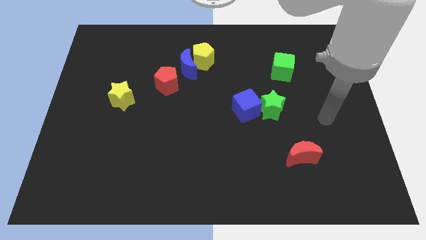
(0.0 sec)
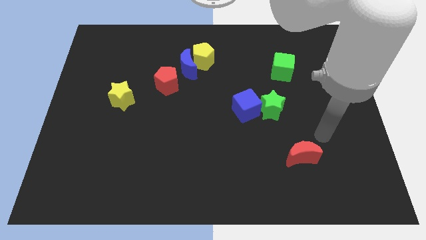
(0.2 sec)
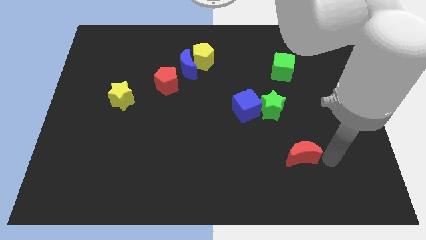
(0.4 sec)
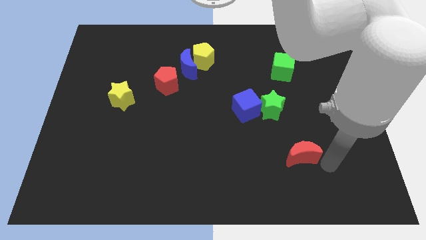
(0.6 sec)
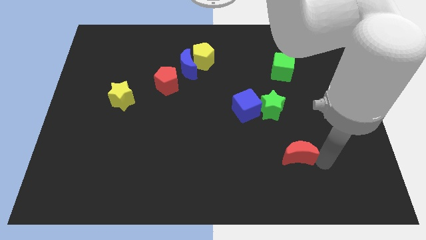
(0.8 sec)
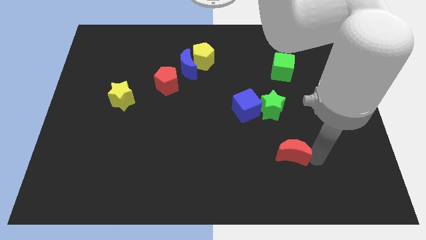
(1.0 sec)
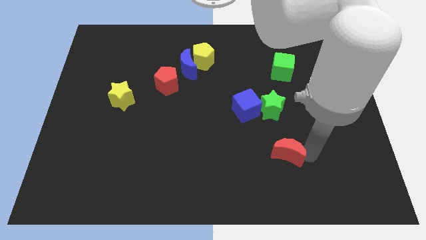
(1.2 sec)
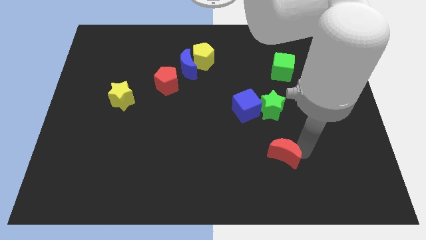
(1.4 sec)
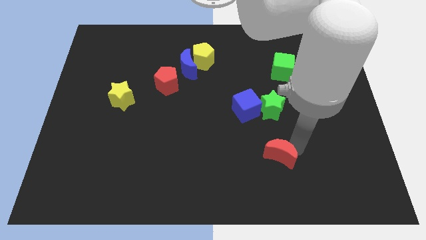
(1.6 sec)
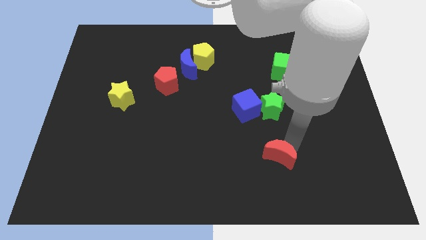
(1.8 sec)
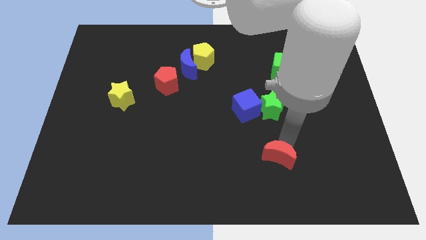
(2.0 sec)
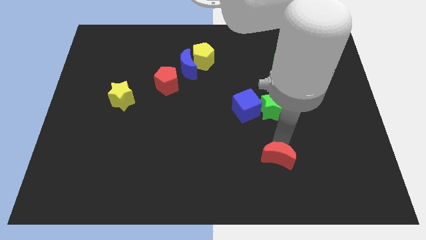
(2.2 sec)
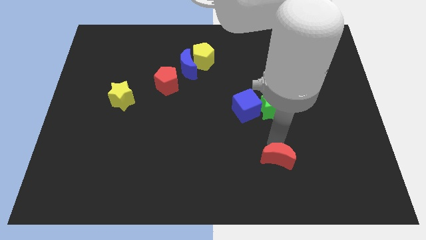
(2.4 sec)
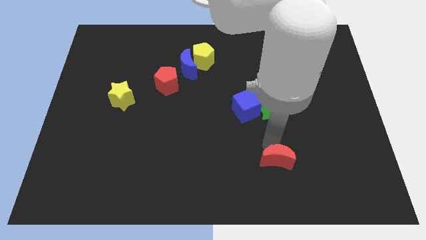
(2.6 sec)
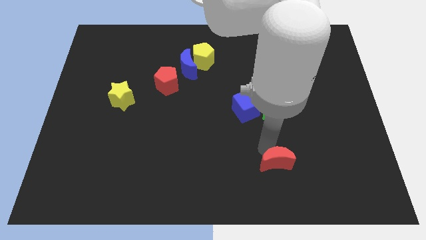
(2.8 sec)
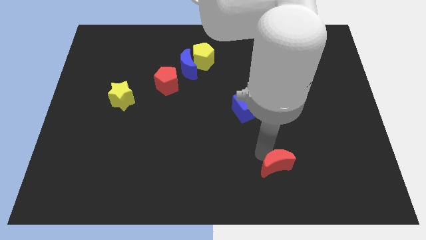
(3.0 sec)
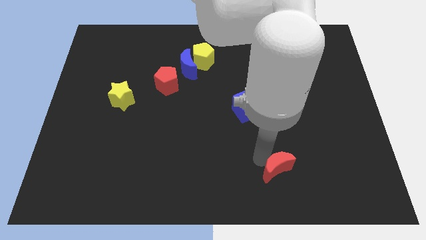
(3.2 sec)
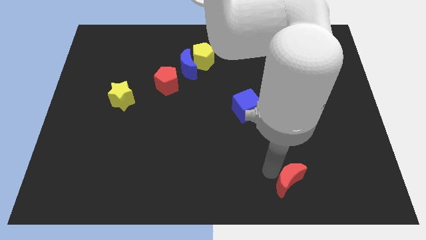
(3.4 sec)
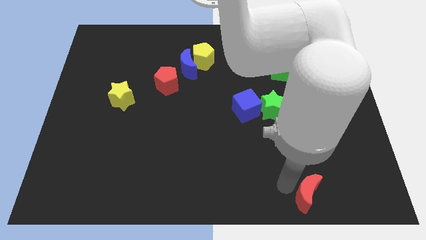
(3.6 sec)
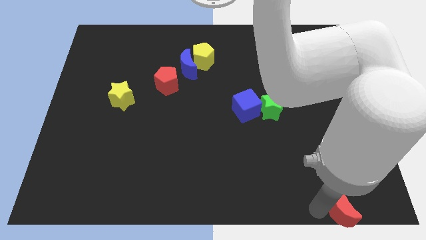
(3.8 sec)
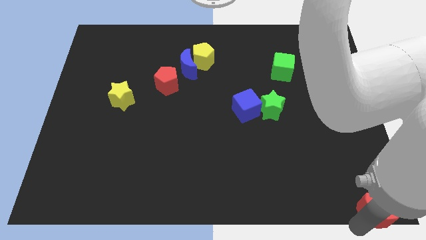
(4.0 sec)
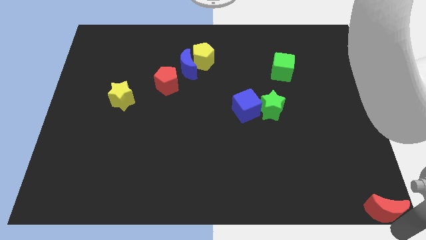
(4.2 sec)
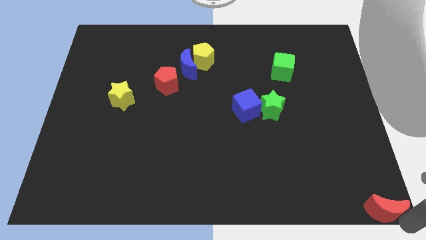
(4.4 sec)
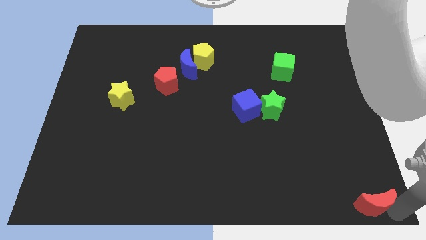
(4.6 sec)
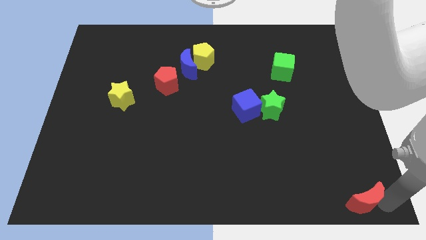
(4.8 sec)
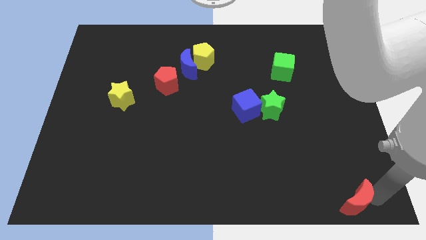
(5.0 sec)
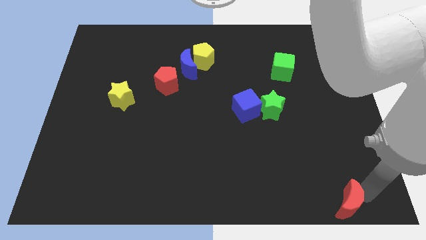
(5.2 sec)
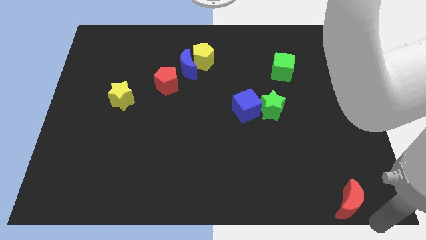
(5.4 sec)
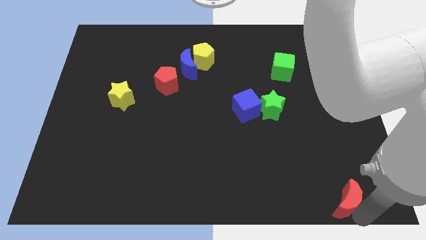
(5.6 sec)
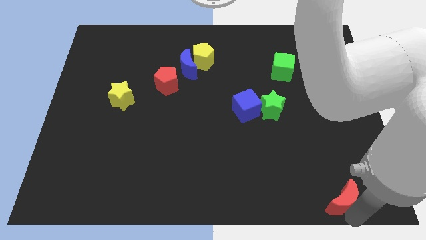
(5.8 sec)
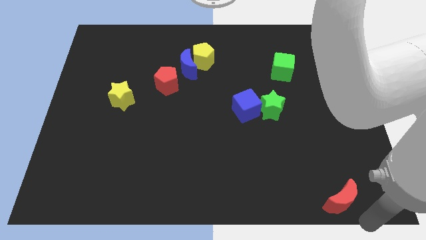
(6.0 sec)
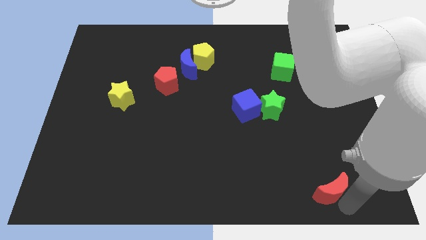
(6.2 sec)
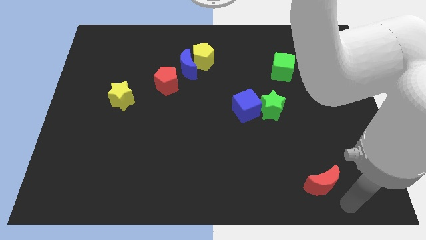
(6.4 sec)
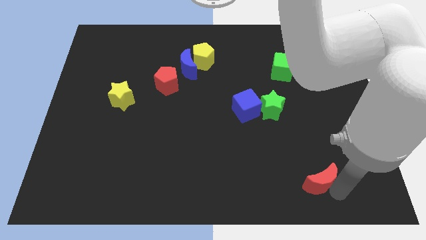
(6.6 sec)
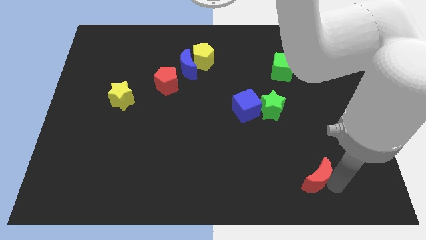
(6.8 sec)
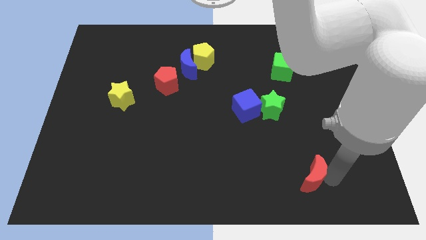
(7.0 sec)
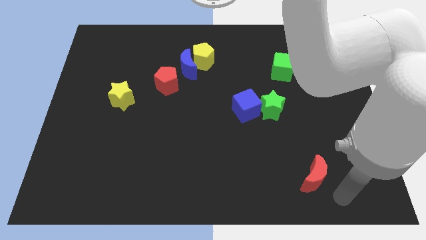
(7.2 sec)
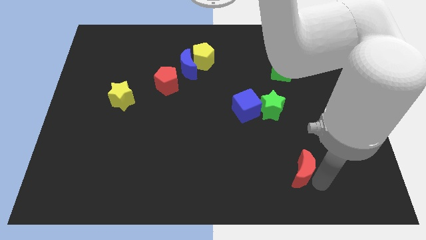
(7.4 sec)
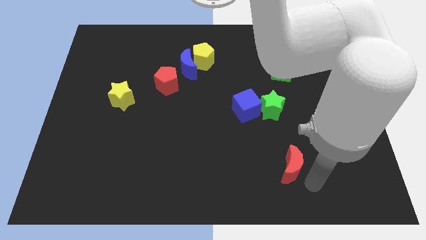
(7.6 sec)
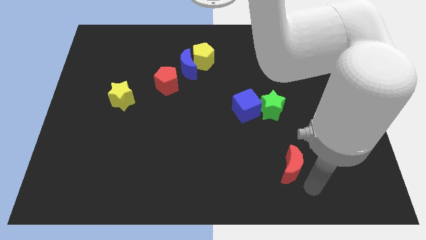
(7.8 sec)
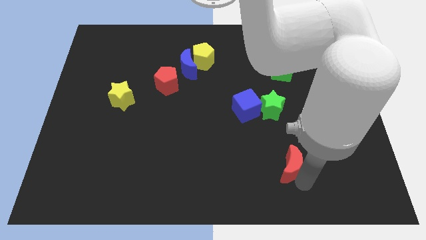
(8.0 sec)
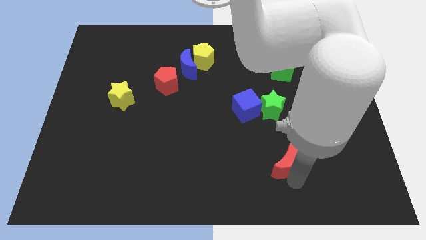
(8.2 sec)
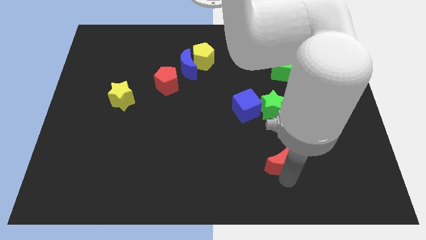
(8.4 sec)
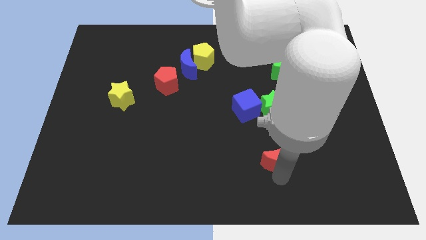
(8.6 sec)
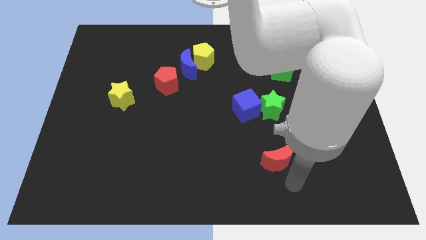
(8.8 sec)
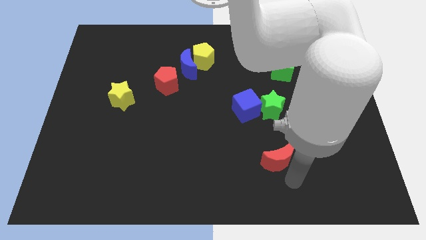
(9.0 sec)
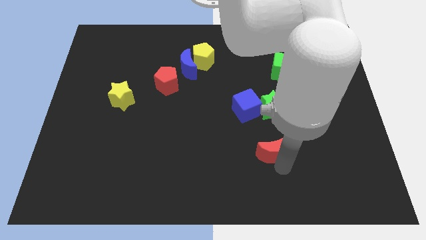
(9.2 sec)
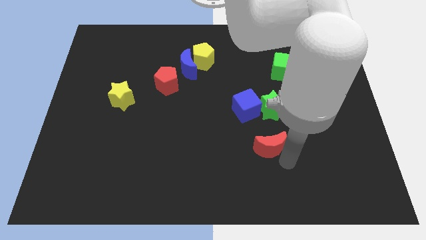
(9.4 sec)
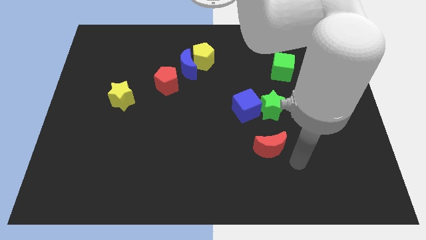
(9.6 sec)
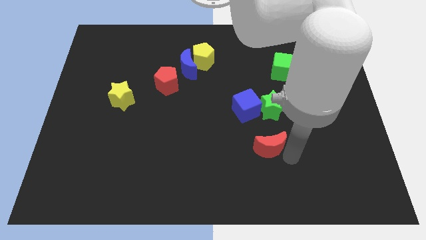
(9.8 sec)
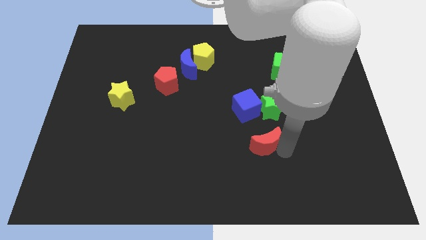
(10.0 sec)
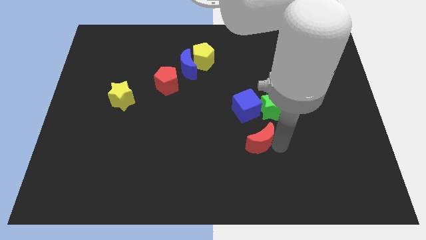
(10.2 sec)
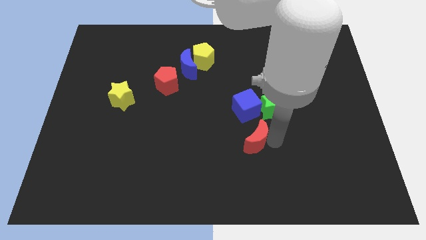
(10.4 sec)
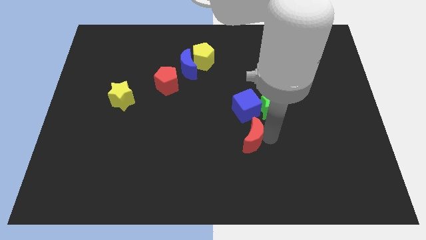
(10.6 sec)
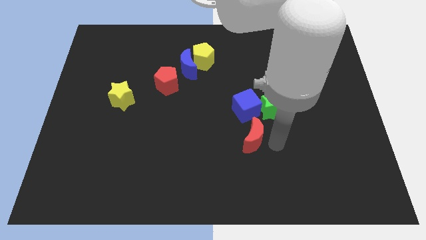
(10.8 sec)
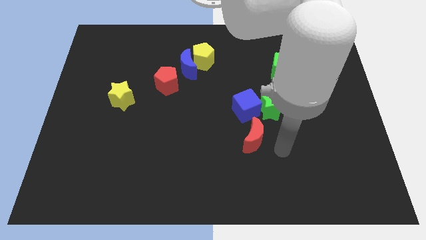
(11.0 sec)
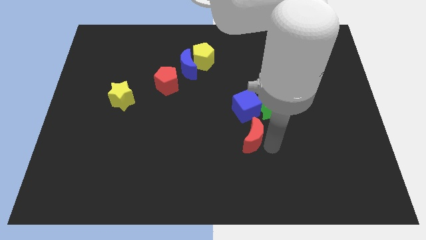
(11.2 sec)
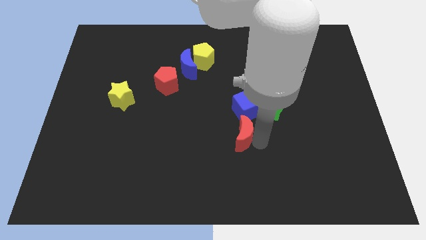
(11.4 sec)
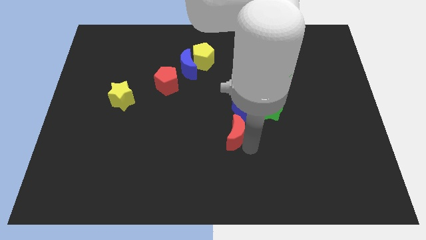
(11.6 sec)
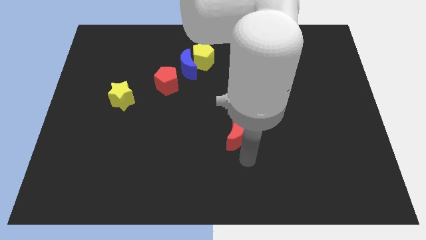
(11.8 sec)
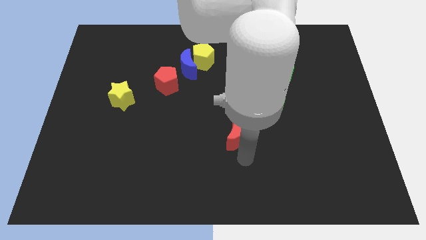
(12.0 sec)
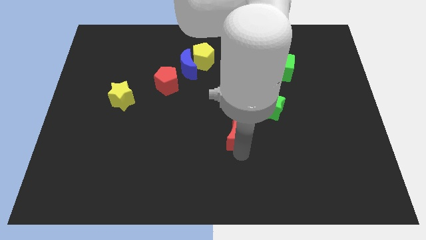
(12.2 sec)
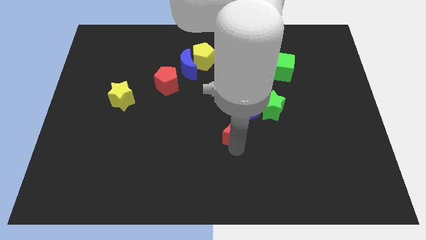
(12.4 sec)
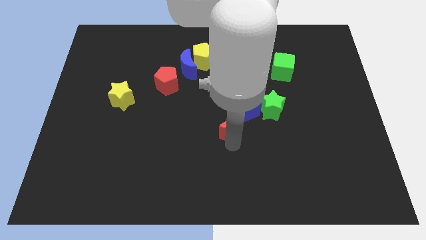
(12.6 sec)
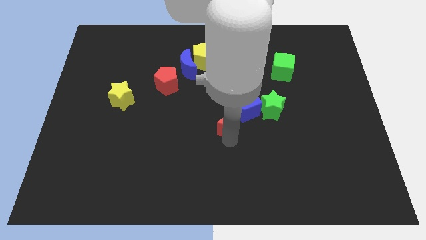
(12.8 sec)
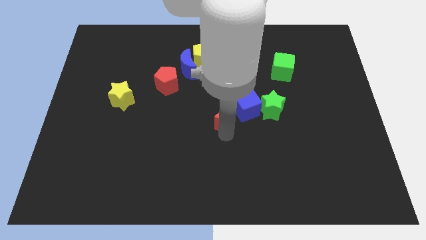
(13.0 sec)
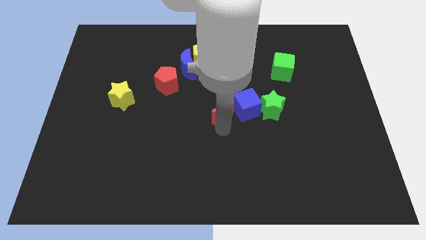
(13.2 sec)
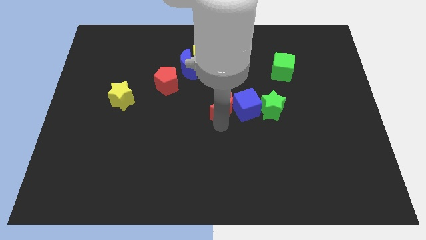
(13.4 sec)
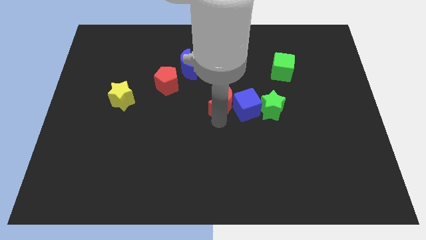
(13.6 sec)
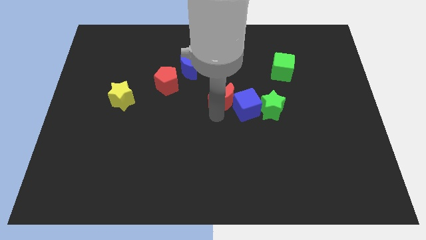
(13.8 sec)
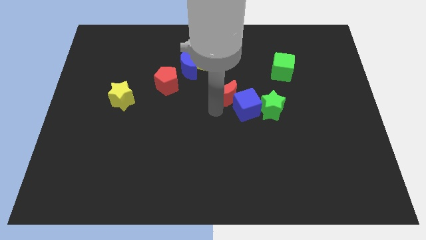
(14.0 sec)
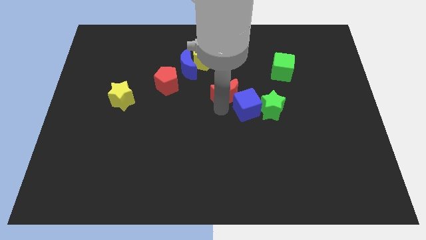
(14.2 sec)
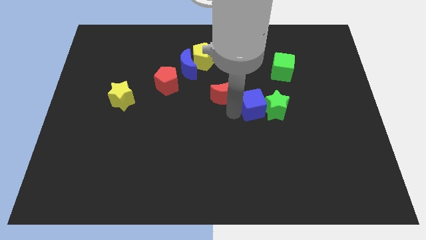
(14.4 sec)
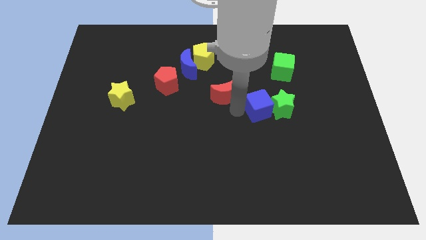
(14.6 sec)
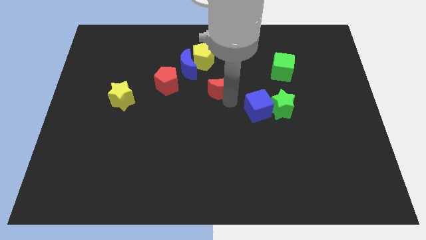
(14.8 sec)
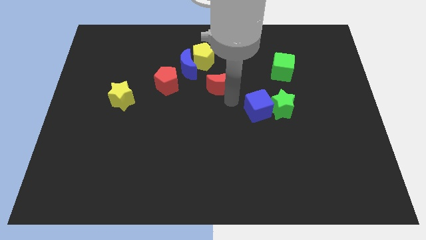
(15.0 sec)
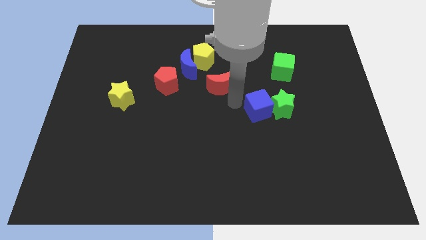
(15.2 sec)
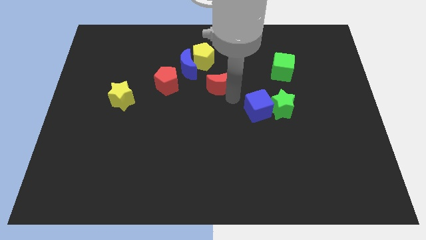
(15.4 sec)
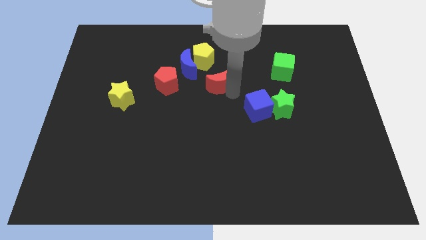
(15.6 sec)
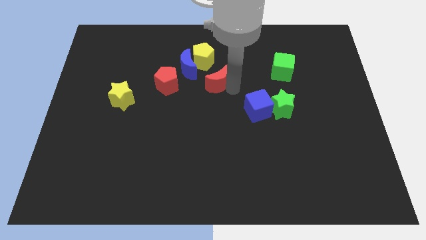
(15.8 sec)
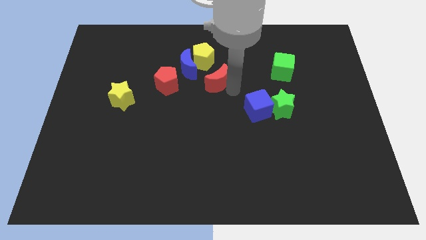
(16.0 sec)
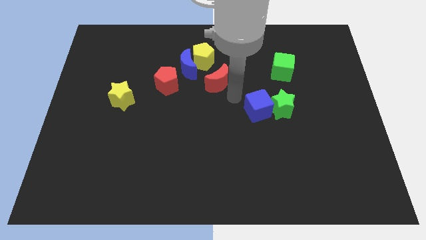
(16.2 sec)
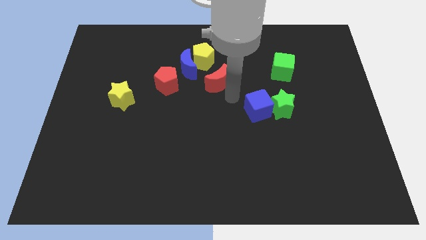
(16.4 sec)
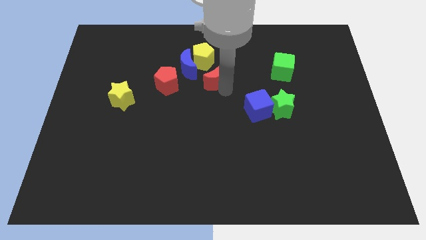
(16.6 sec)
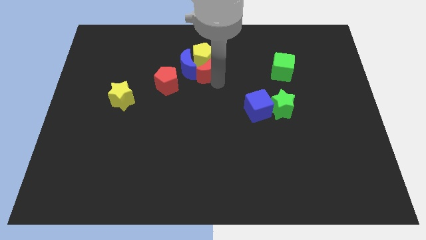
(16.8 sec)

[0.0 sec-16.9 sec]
slide the red moon next to the yellow pentagon
